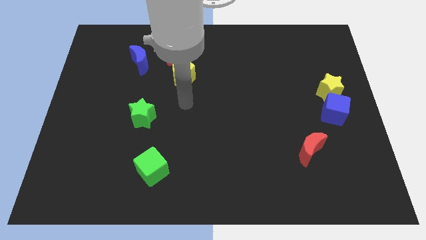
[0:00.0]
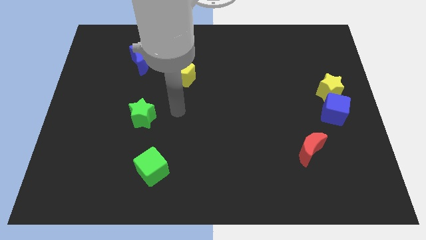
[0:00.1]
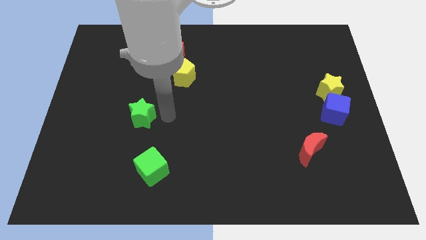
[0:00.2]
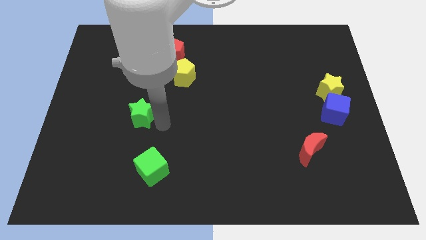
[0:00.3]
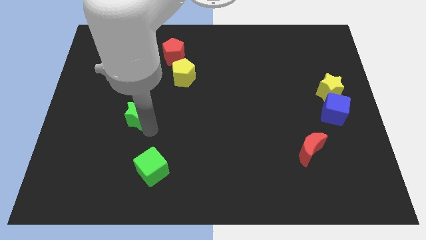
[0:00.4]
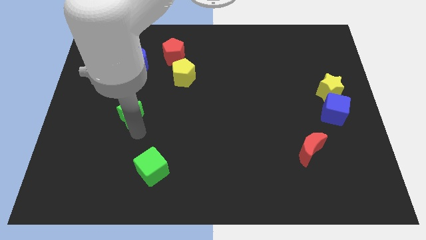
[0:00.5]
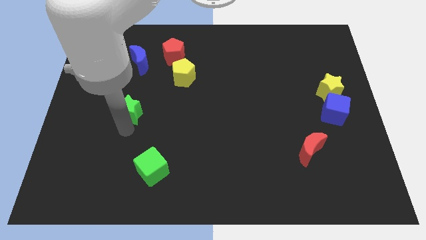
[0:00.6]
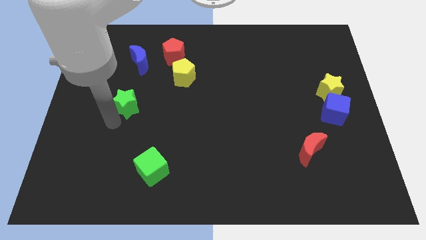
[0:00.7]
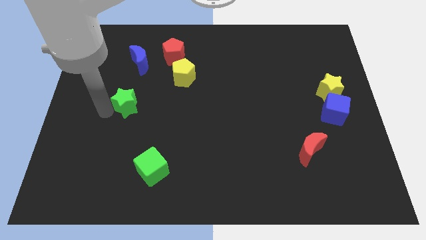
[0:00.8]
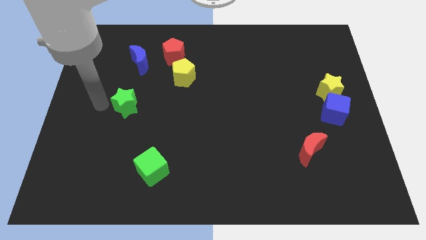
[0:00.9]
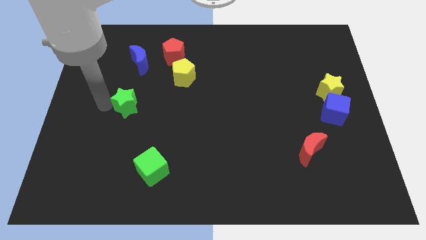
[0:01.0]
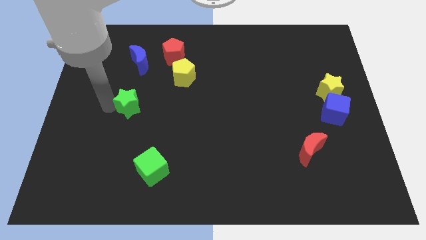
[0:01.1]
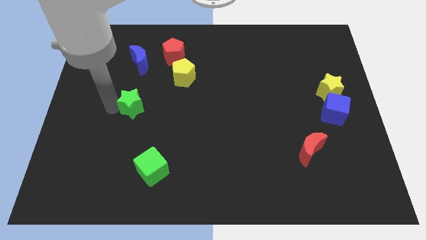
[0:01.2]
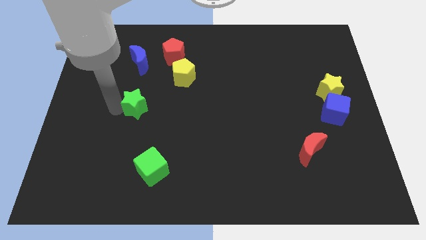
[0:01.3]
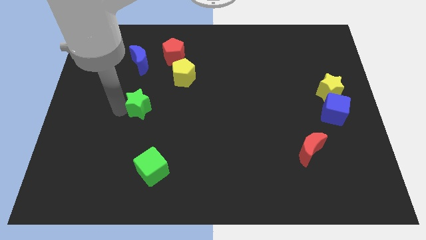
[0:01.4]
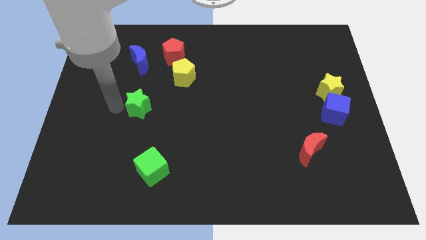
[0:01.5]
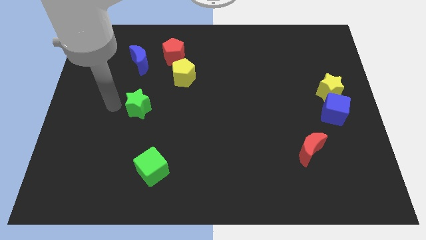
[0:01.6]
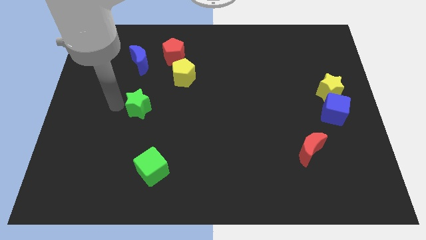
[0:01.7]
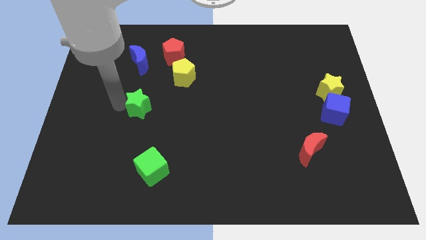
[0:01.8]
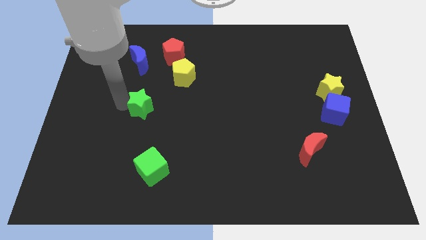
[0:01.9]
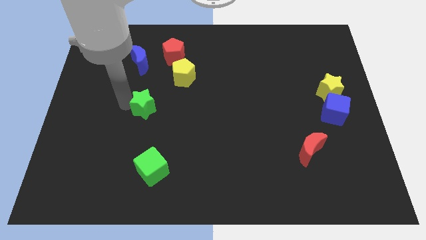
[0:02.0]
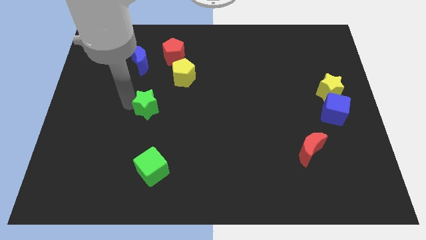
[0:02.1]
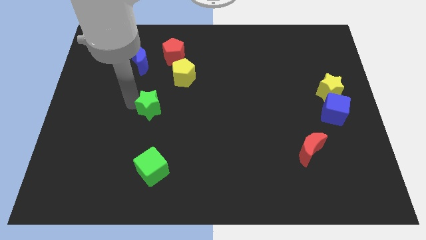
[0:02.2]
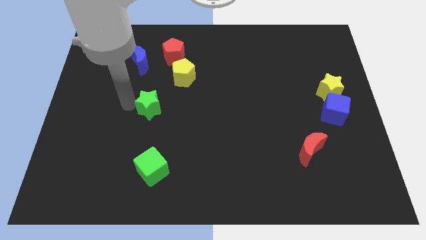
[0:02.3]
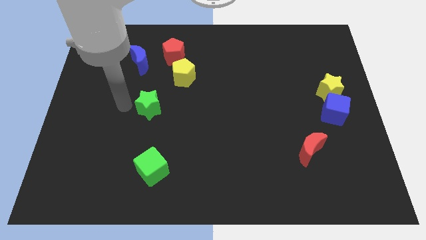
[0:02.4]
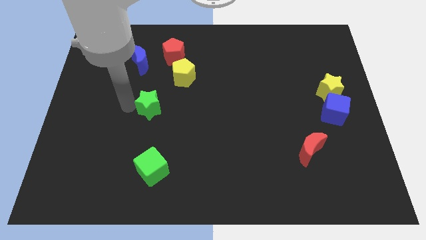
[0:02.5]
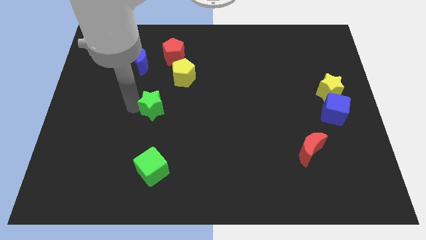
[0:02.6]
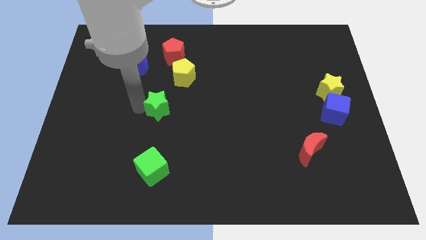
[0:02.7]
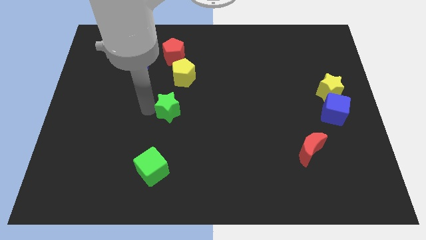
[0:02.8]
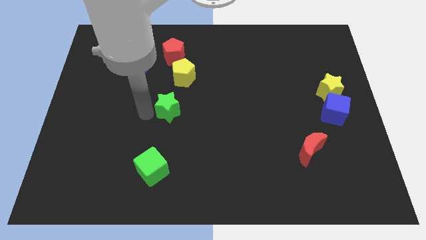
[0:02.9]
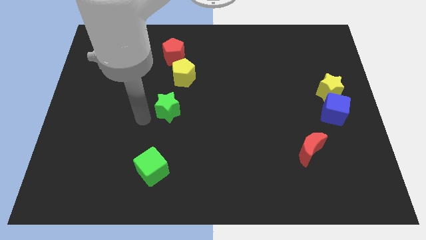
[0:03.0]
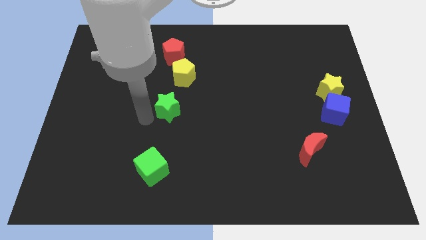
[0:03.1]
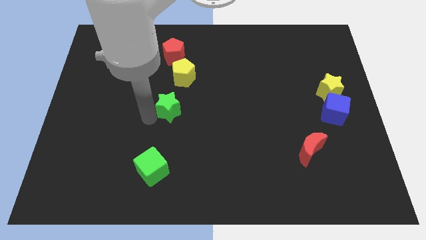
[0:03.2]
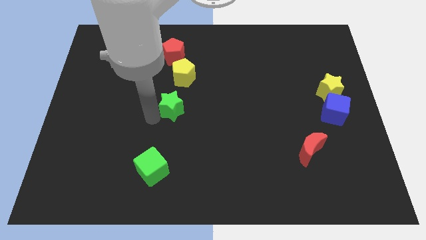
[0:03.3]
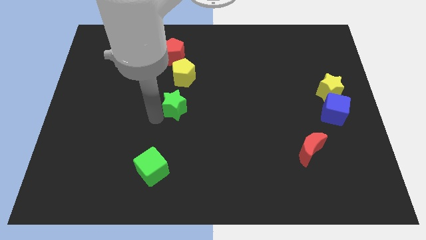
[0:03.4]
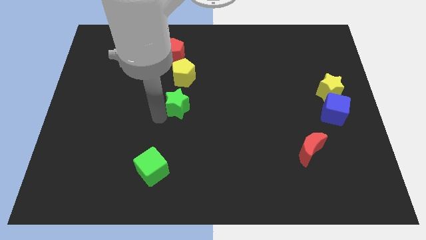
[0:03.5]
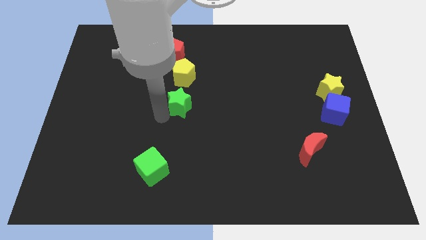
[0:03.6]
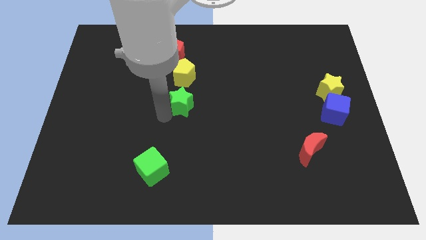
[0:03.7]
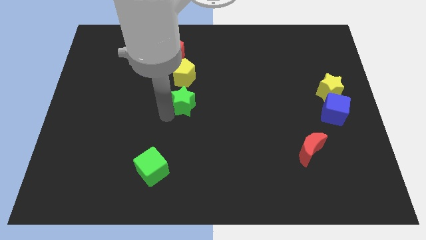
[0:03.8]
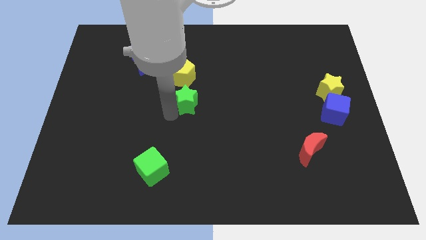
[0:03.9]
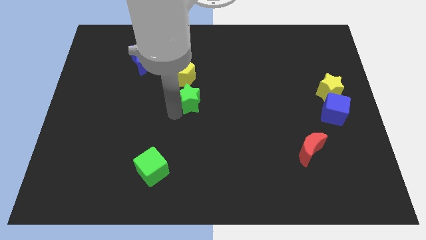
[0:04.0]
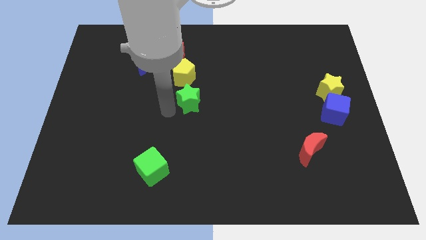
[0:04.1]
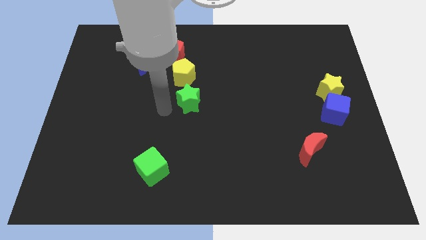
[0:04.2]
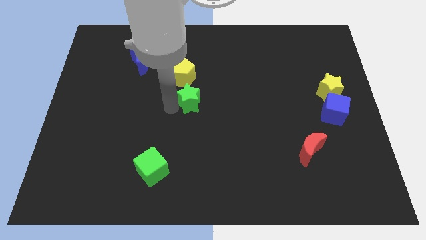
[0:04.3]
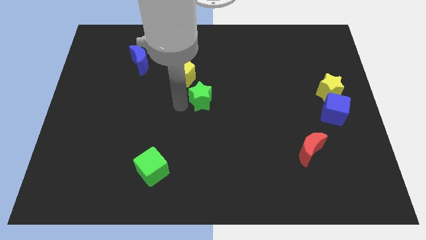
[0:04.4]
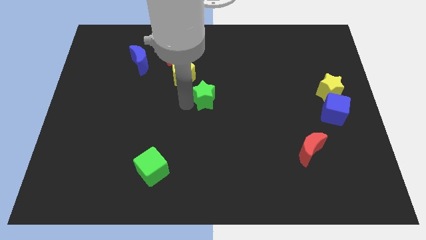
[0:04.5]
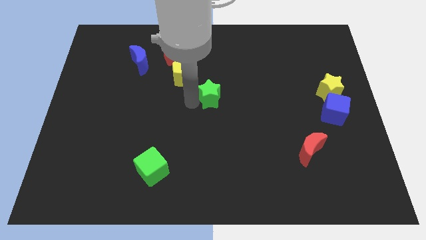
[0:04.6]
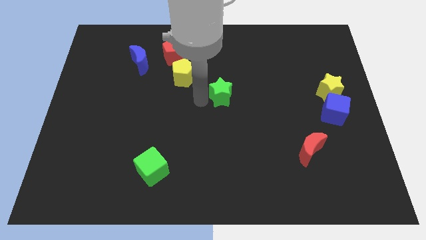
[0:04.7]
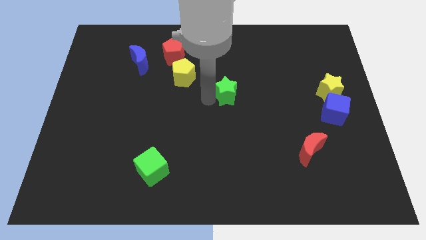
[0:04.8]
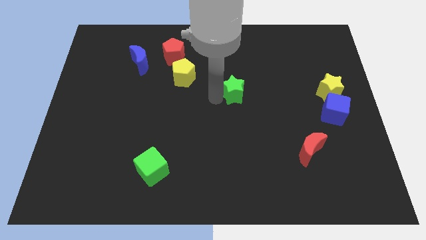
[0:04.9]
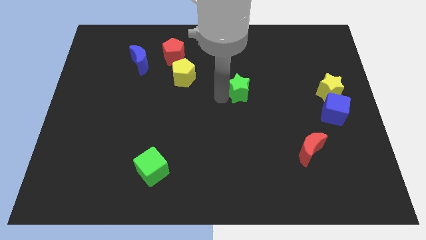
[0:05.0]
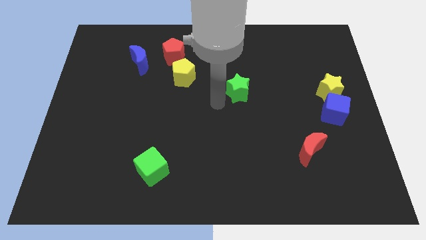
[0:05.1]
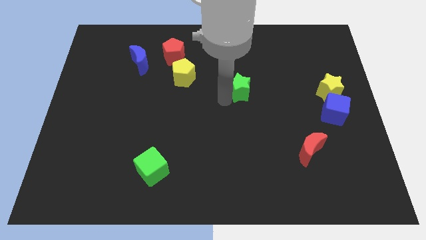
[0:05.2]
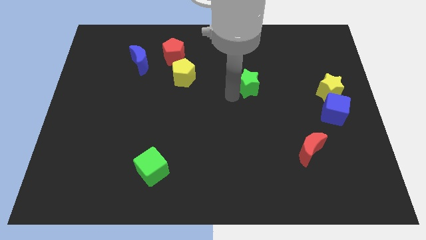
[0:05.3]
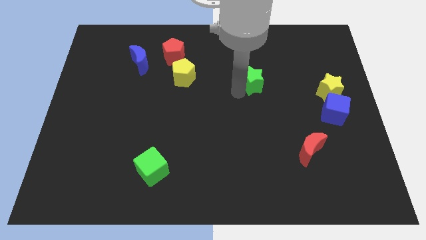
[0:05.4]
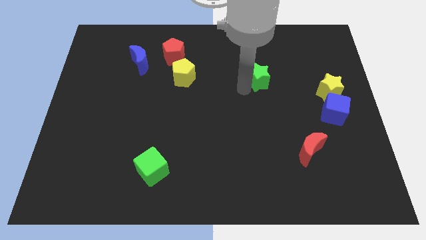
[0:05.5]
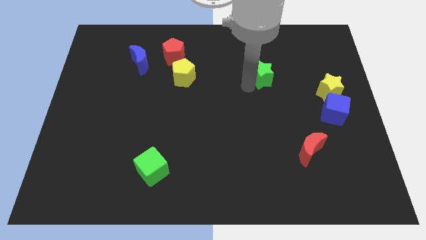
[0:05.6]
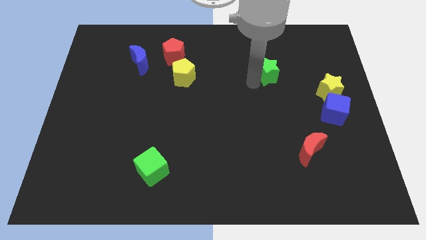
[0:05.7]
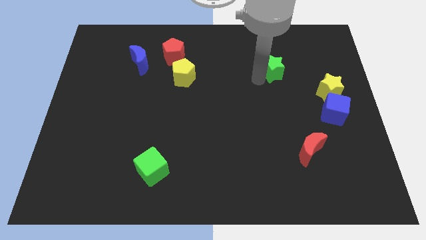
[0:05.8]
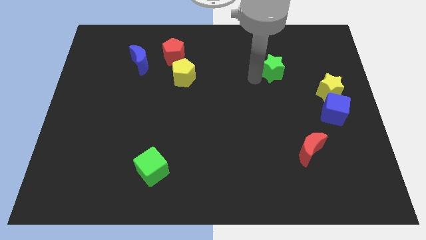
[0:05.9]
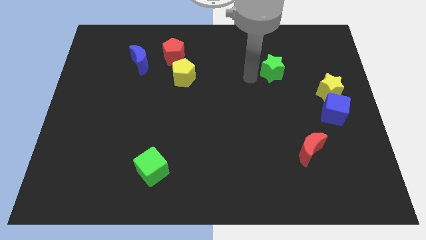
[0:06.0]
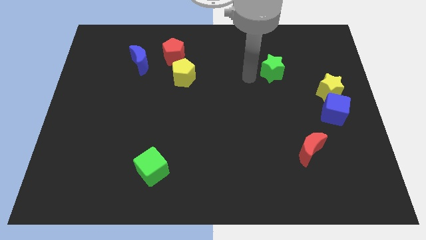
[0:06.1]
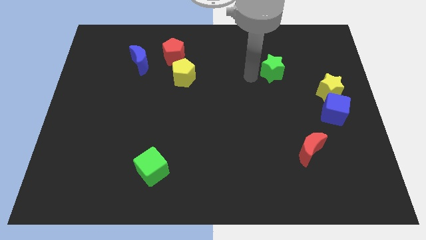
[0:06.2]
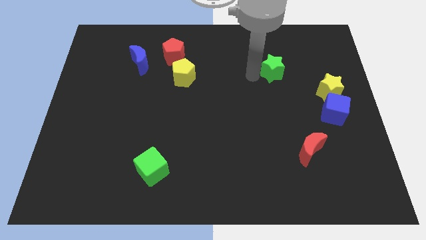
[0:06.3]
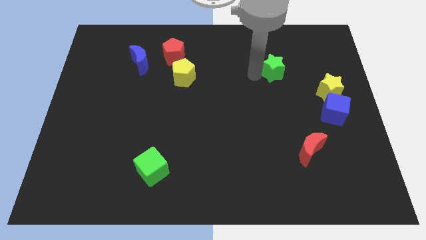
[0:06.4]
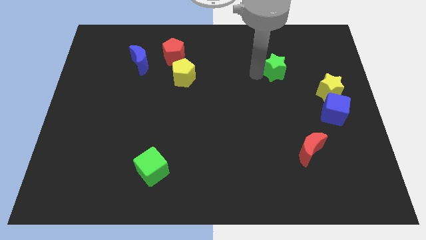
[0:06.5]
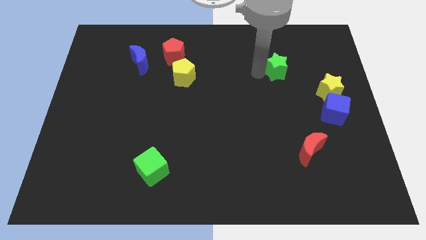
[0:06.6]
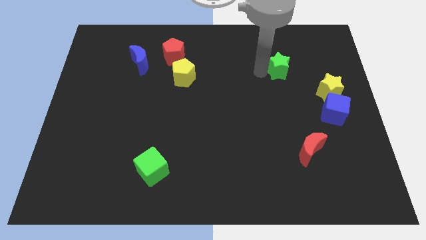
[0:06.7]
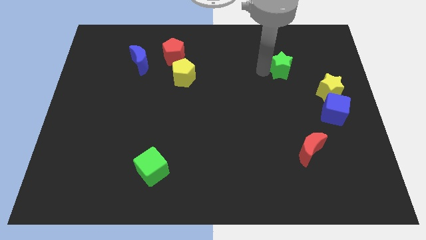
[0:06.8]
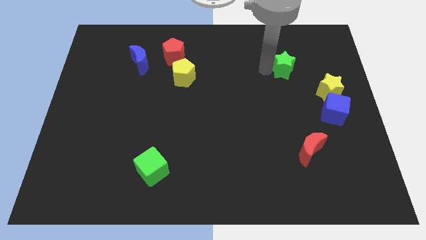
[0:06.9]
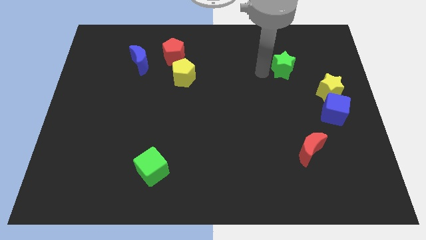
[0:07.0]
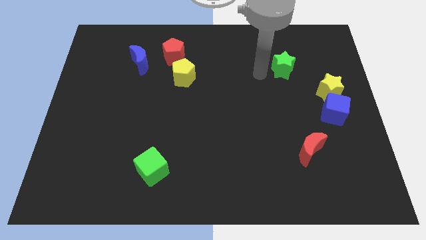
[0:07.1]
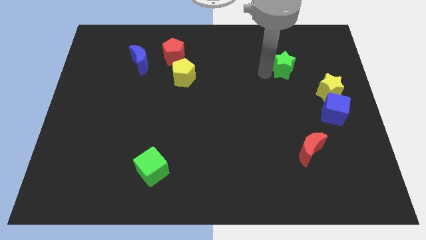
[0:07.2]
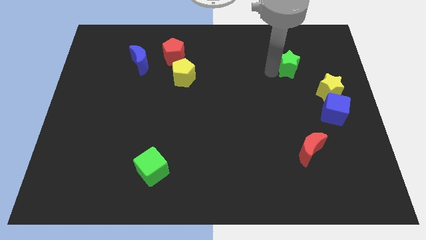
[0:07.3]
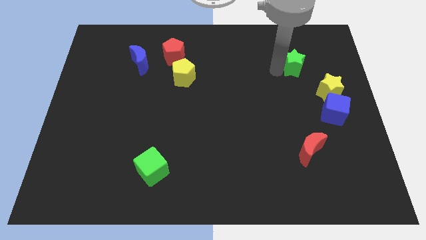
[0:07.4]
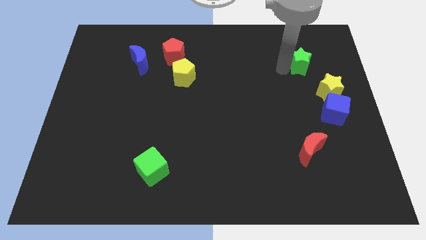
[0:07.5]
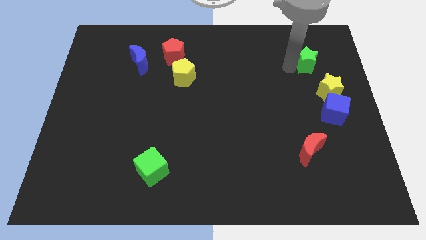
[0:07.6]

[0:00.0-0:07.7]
move the green star to the top of the yellow star
